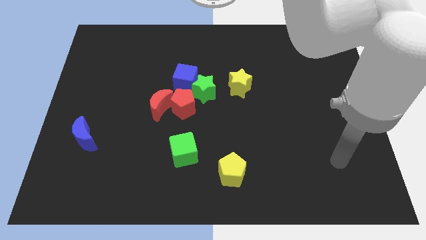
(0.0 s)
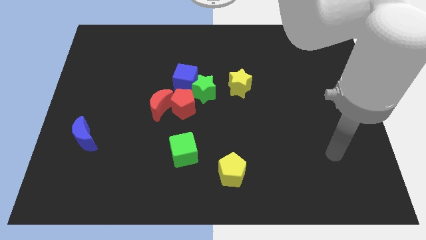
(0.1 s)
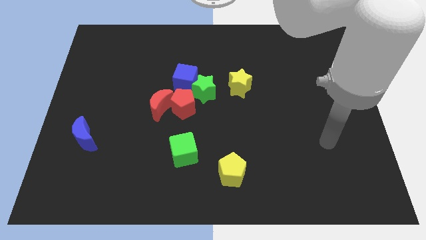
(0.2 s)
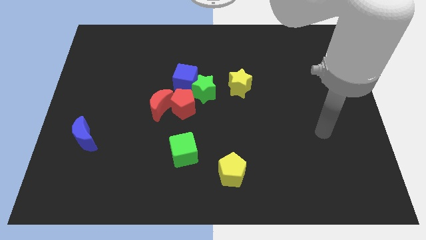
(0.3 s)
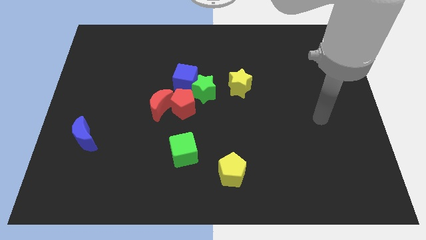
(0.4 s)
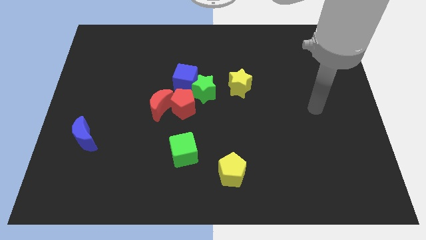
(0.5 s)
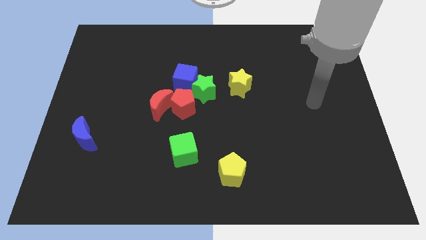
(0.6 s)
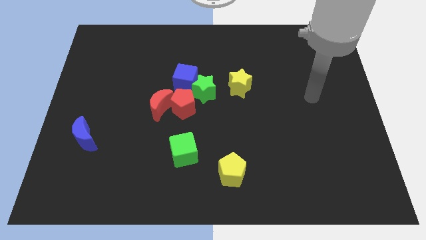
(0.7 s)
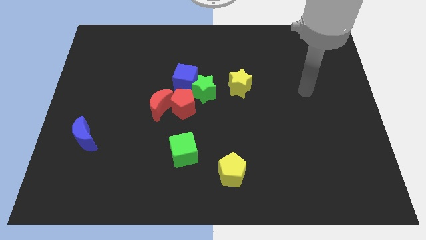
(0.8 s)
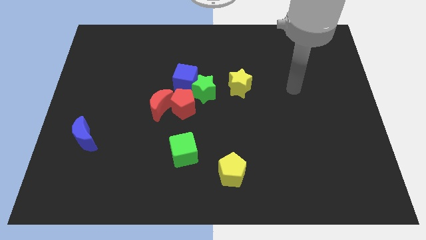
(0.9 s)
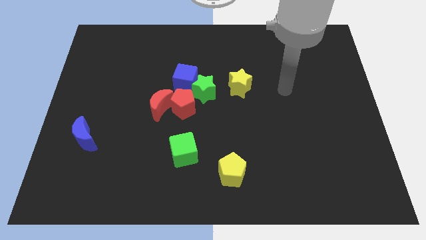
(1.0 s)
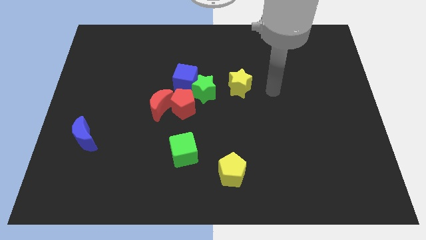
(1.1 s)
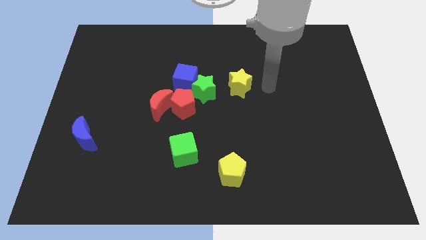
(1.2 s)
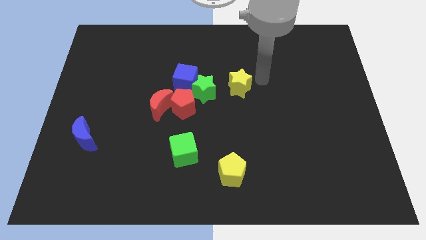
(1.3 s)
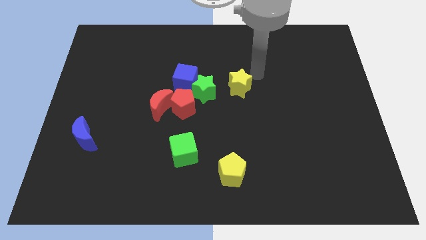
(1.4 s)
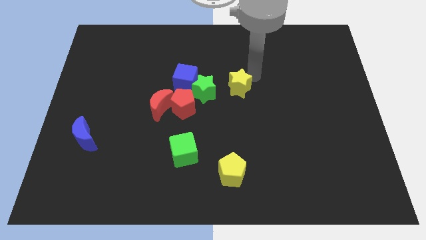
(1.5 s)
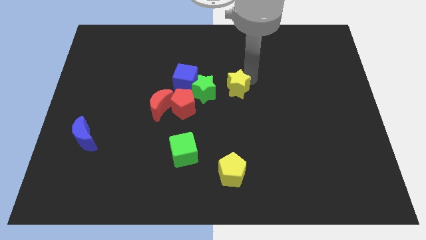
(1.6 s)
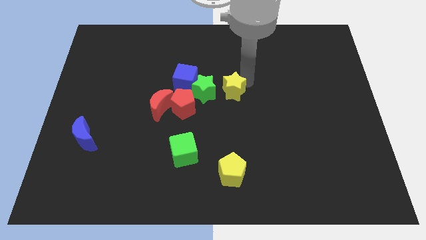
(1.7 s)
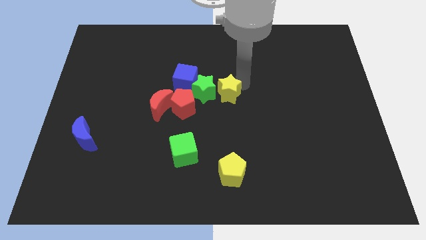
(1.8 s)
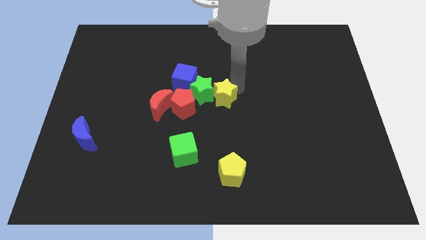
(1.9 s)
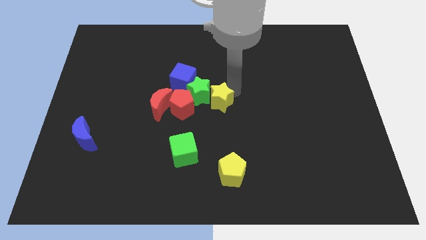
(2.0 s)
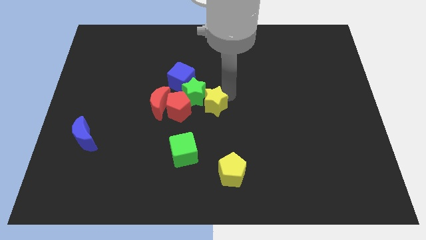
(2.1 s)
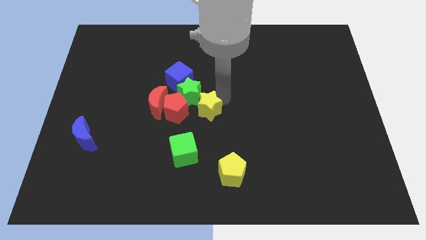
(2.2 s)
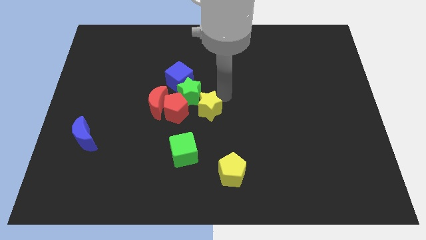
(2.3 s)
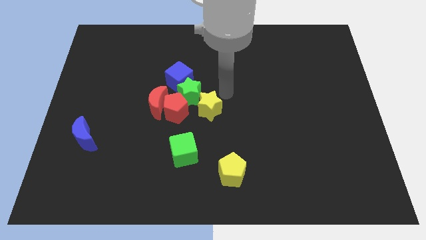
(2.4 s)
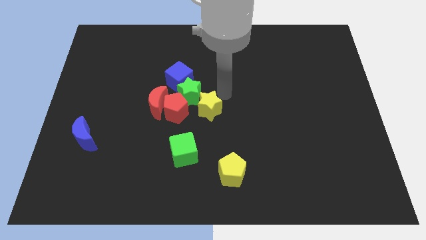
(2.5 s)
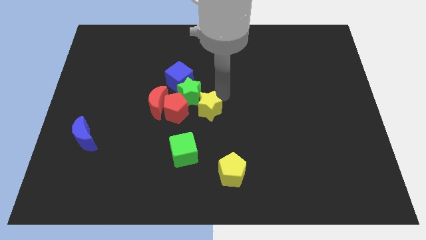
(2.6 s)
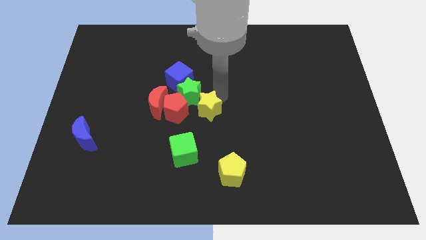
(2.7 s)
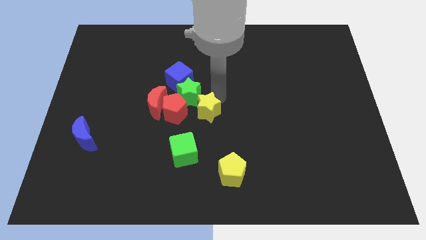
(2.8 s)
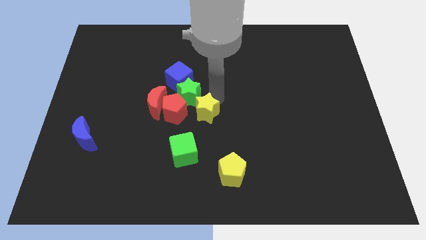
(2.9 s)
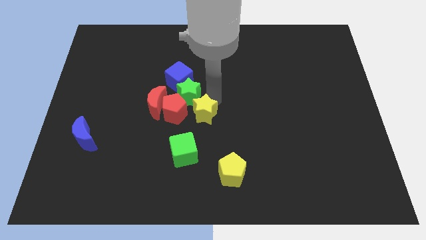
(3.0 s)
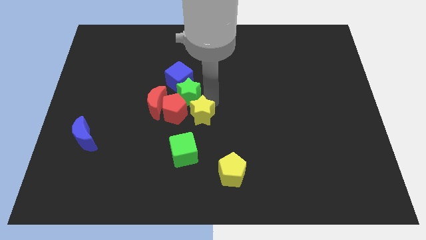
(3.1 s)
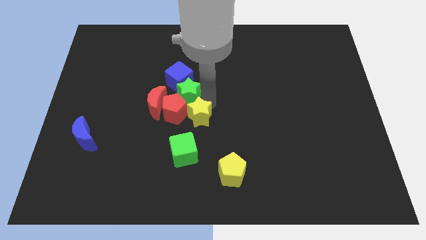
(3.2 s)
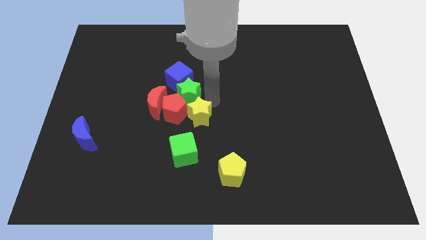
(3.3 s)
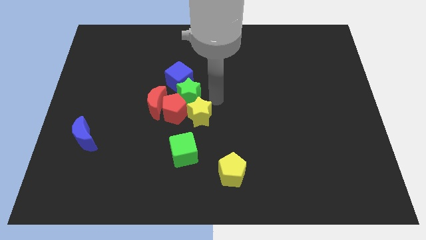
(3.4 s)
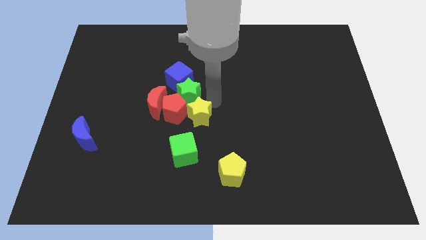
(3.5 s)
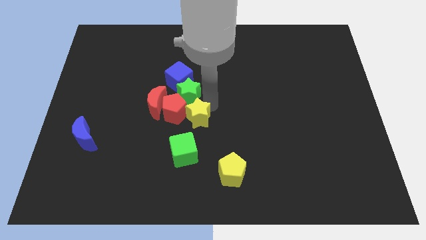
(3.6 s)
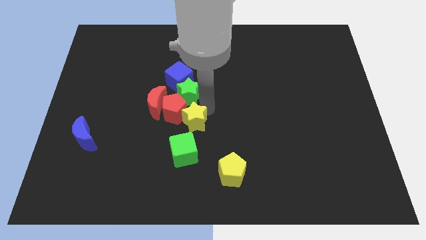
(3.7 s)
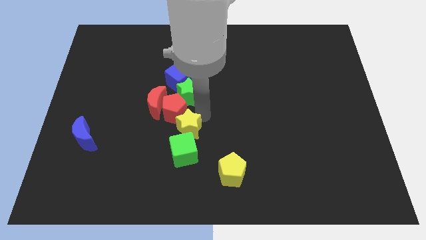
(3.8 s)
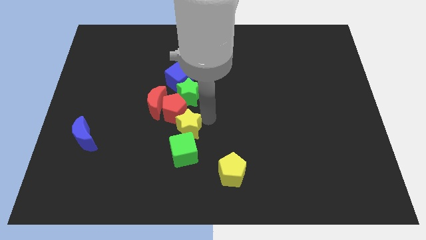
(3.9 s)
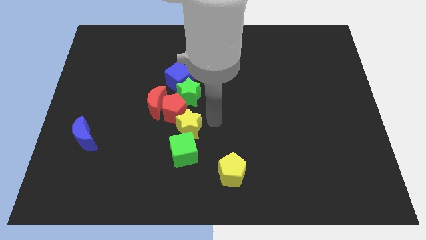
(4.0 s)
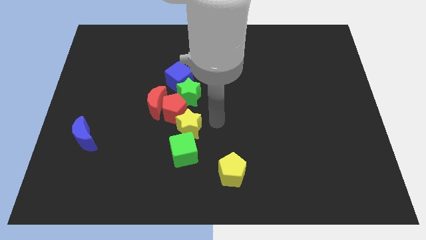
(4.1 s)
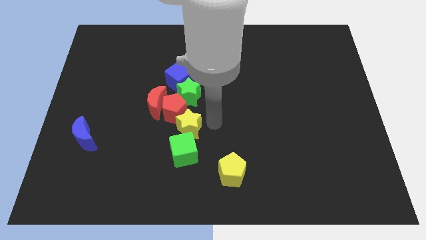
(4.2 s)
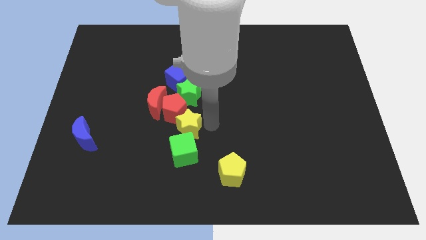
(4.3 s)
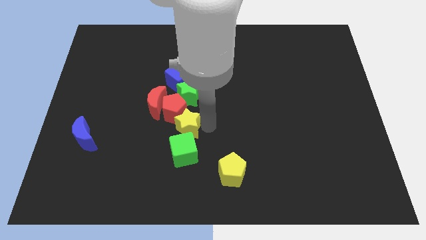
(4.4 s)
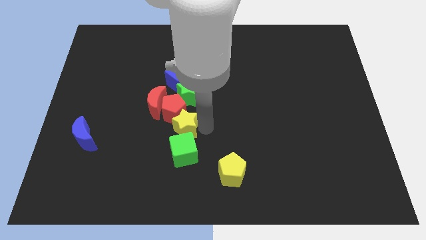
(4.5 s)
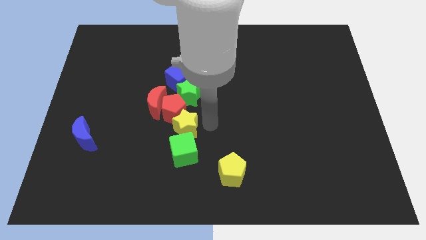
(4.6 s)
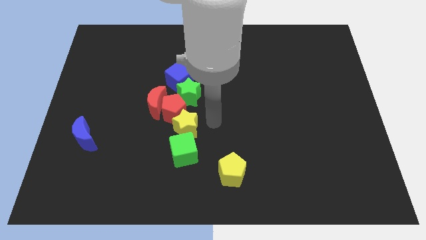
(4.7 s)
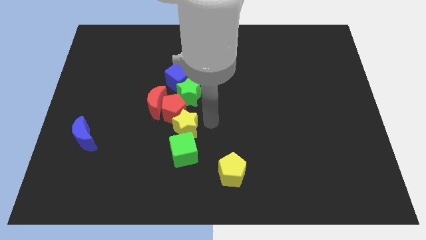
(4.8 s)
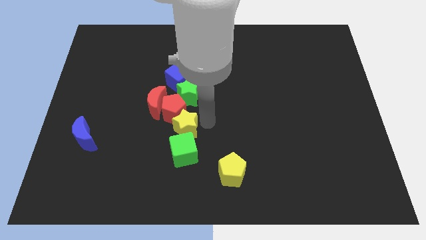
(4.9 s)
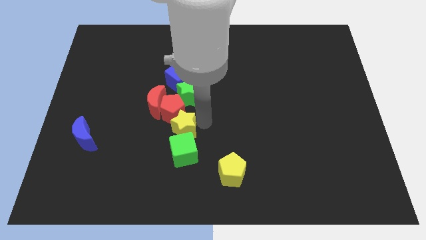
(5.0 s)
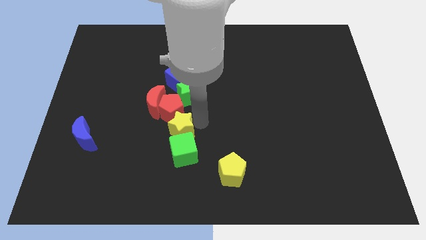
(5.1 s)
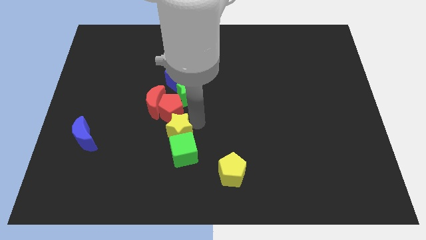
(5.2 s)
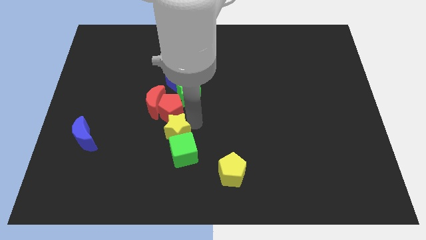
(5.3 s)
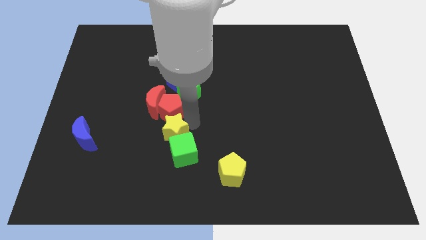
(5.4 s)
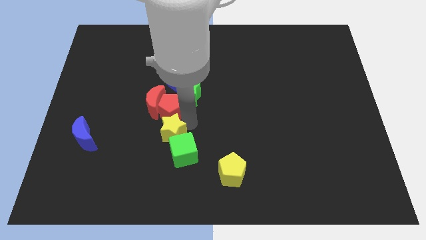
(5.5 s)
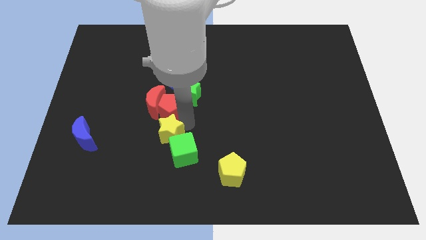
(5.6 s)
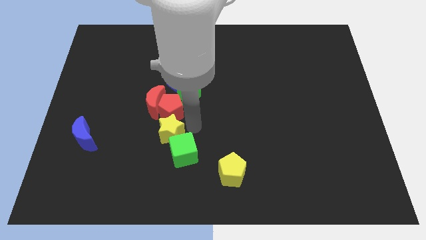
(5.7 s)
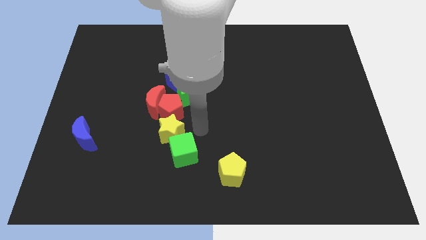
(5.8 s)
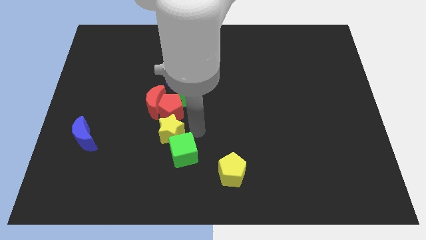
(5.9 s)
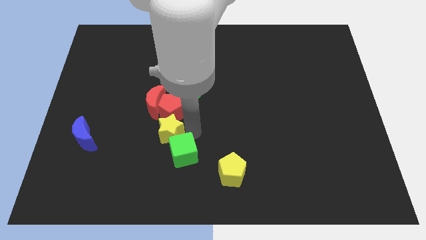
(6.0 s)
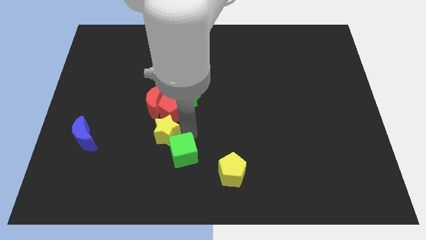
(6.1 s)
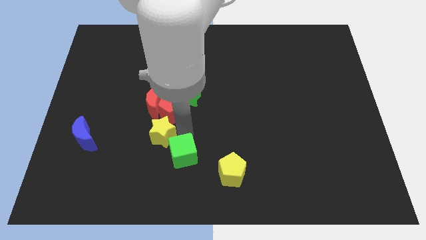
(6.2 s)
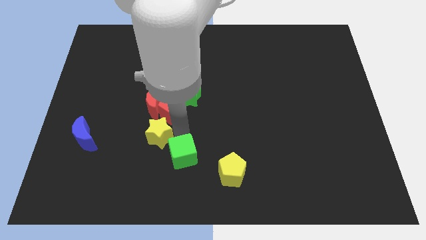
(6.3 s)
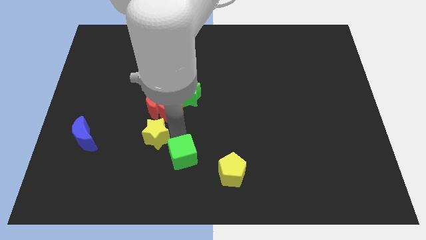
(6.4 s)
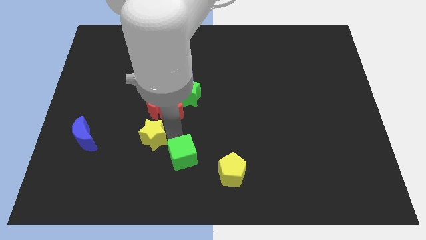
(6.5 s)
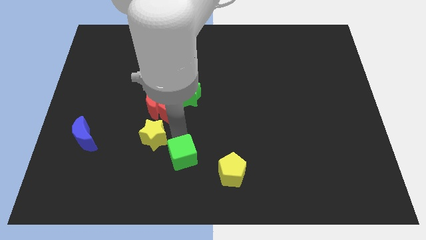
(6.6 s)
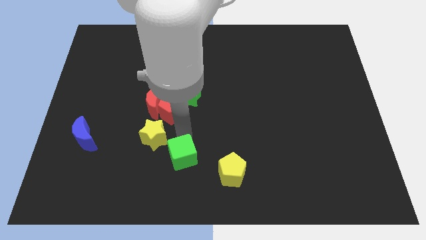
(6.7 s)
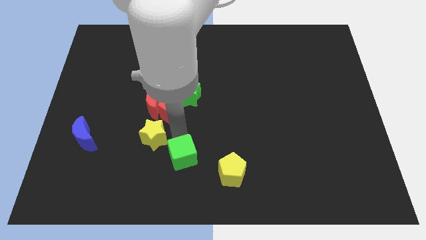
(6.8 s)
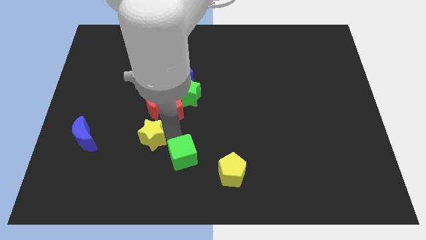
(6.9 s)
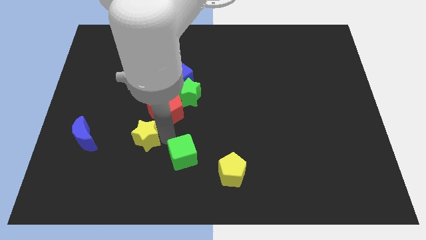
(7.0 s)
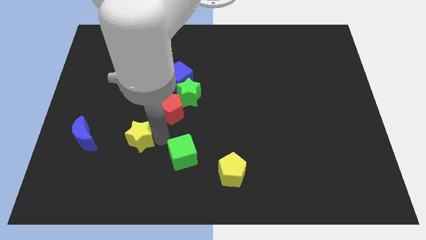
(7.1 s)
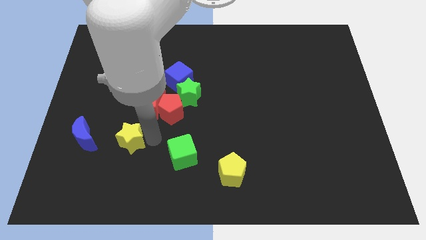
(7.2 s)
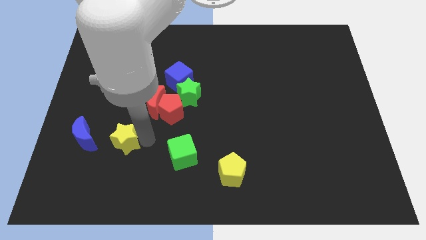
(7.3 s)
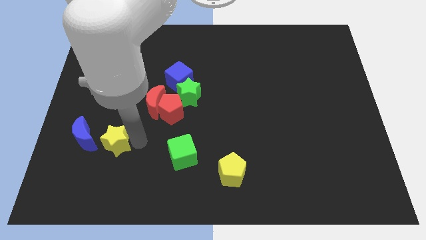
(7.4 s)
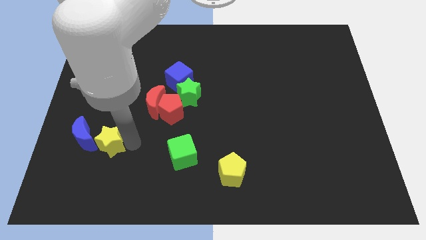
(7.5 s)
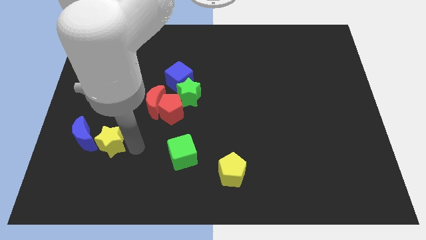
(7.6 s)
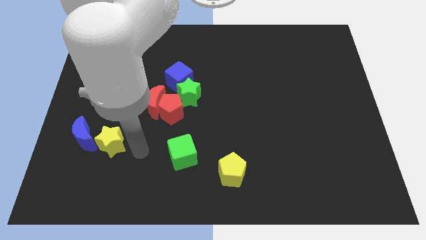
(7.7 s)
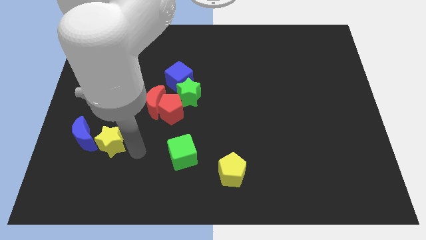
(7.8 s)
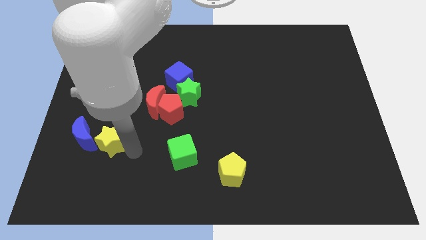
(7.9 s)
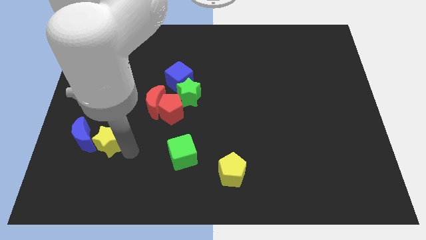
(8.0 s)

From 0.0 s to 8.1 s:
slide the yellow star towards the blue moon
